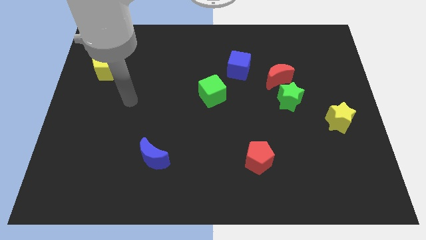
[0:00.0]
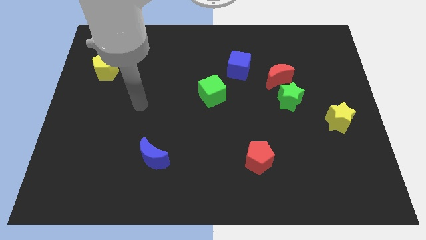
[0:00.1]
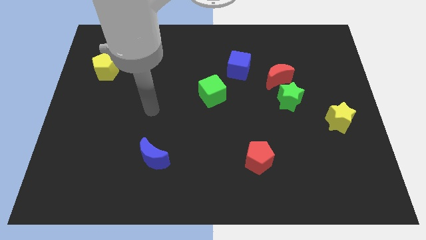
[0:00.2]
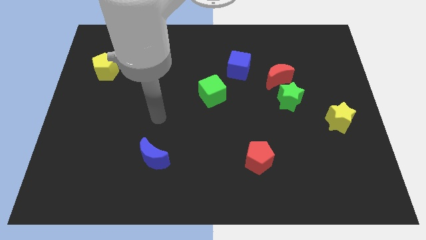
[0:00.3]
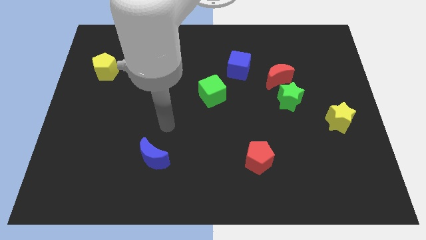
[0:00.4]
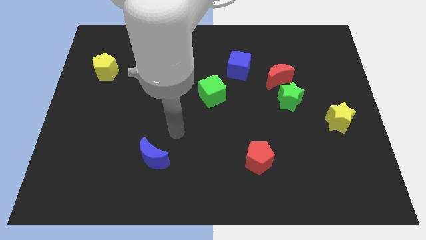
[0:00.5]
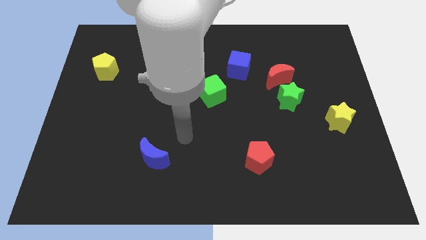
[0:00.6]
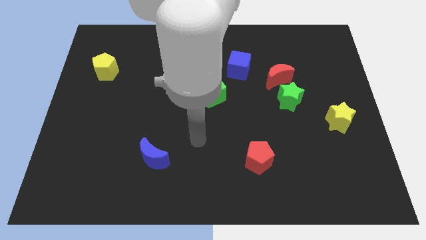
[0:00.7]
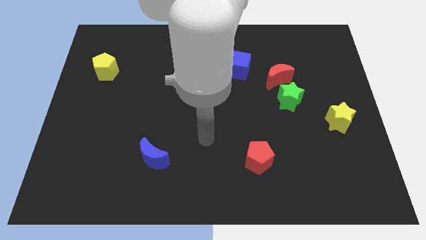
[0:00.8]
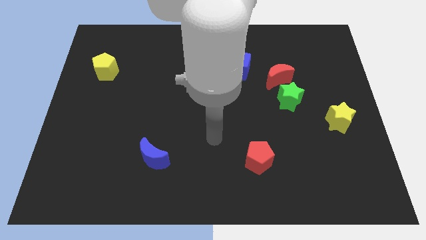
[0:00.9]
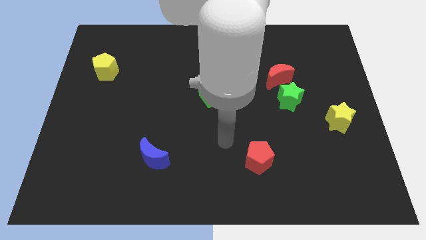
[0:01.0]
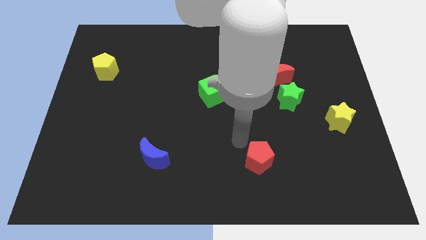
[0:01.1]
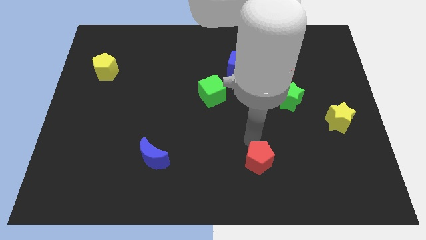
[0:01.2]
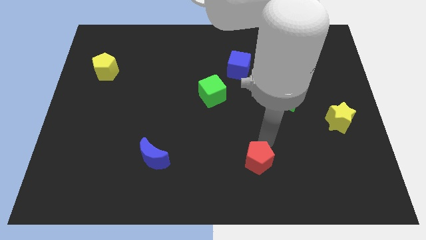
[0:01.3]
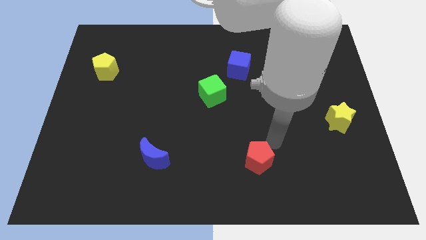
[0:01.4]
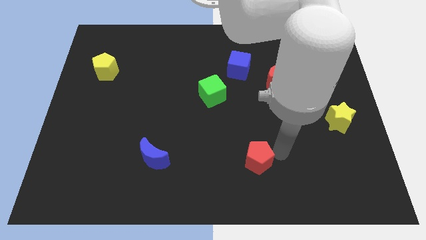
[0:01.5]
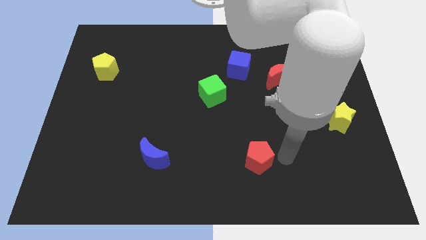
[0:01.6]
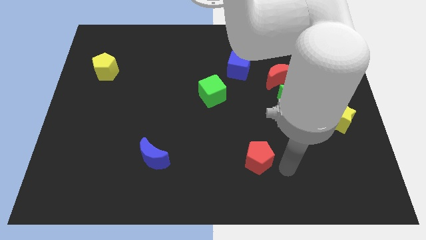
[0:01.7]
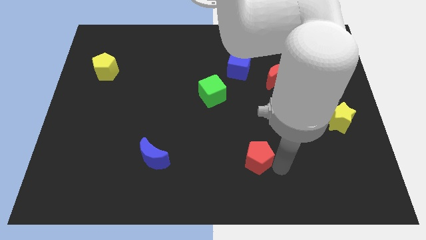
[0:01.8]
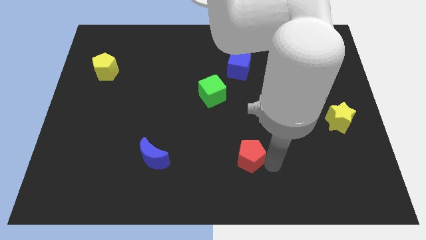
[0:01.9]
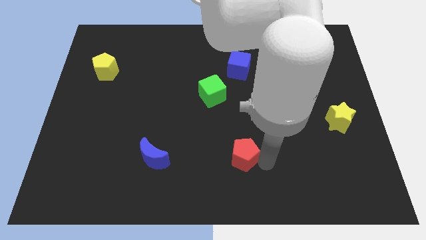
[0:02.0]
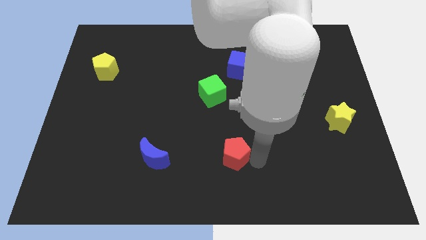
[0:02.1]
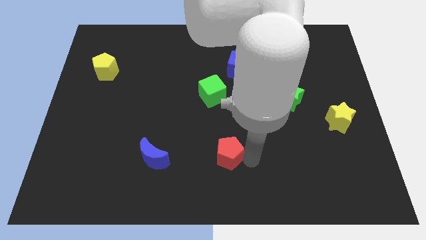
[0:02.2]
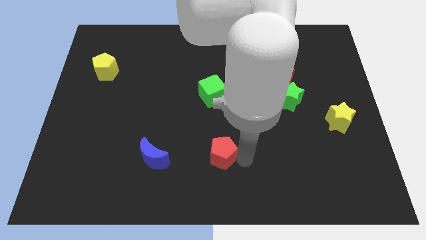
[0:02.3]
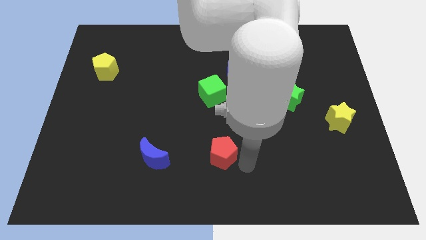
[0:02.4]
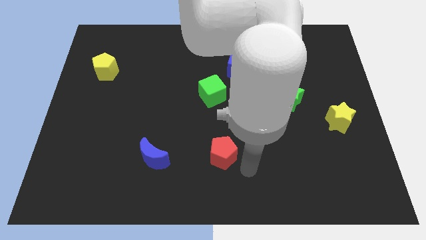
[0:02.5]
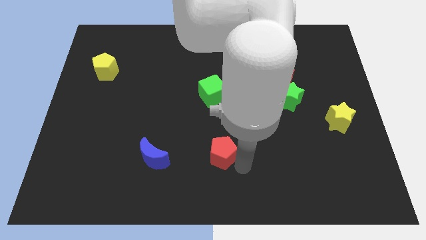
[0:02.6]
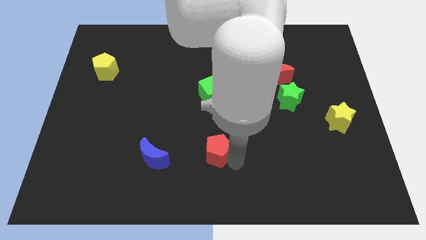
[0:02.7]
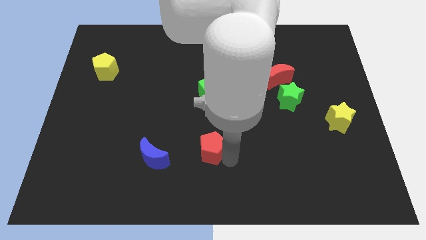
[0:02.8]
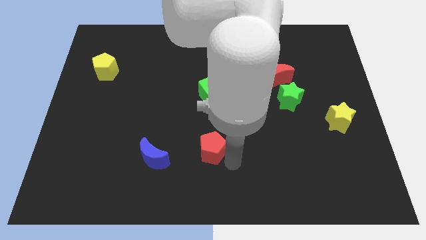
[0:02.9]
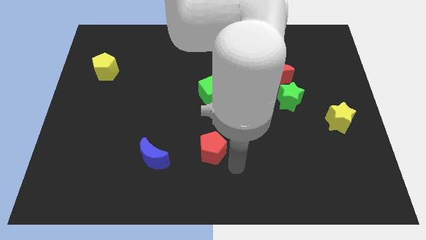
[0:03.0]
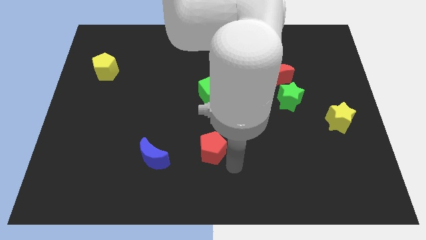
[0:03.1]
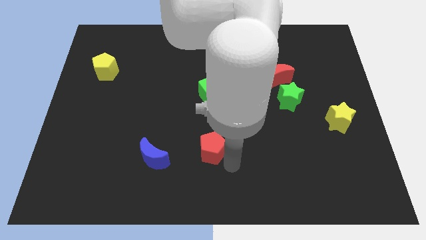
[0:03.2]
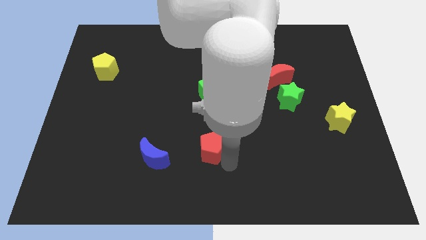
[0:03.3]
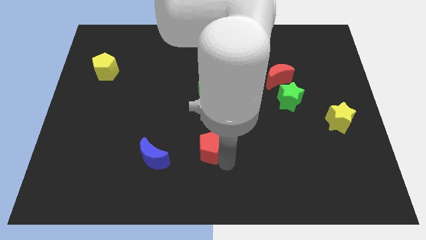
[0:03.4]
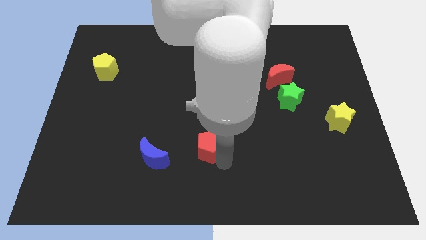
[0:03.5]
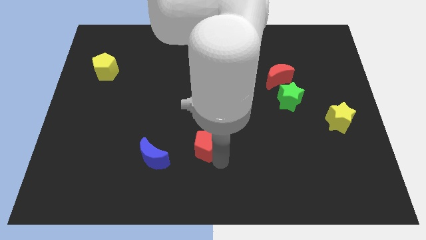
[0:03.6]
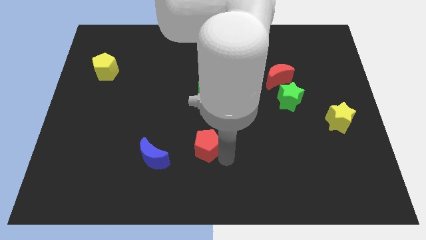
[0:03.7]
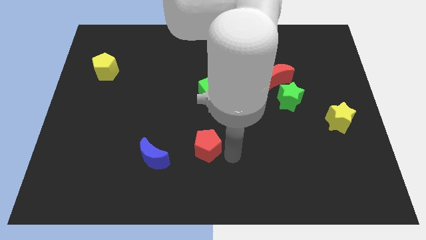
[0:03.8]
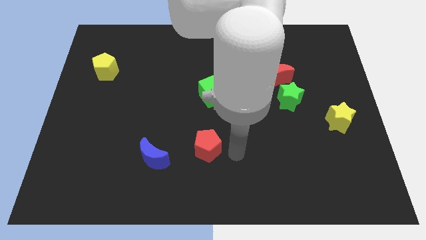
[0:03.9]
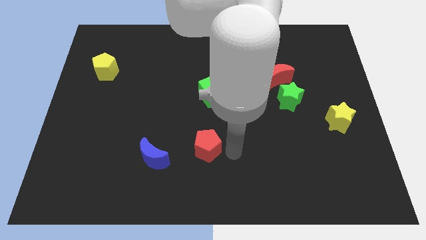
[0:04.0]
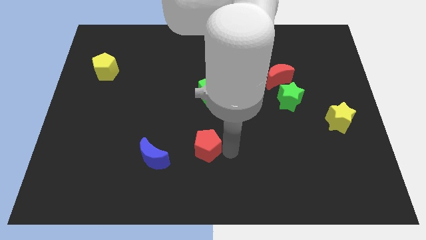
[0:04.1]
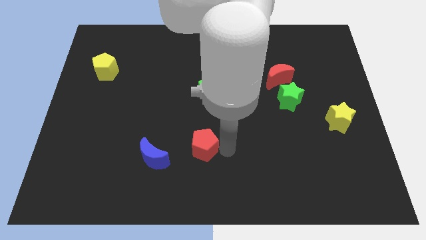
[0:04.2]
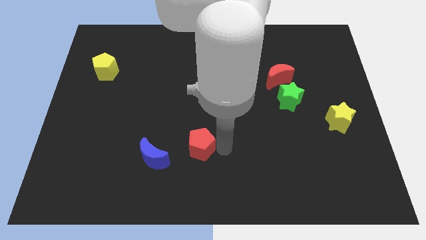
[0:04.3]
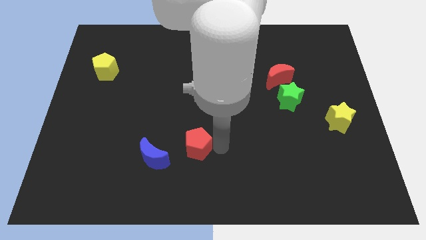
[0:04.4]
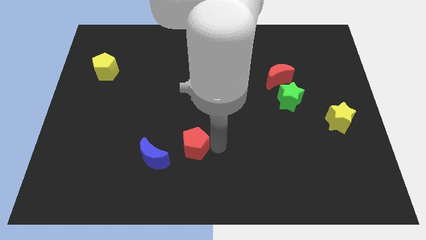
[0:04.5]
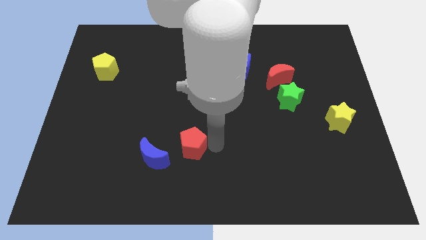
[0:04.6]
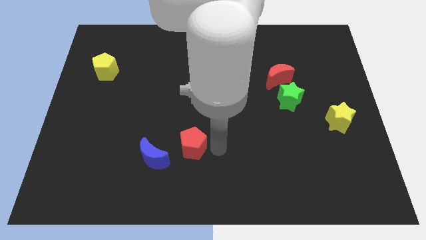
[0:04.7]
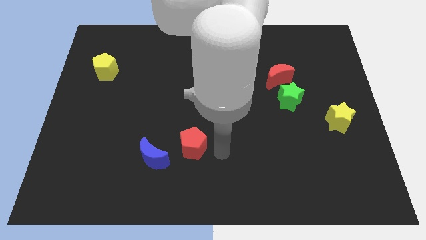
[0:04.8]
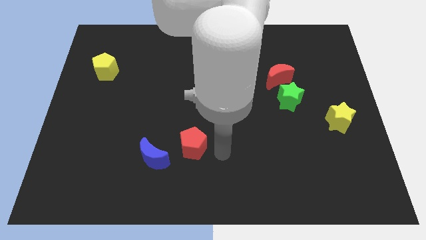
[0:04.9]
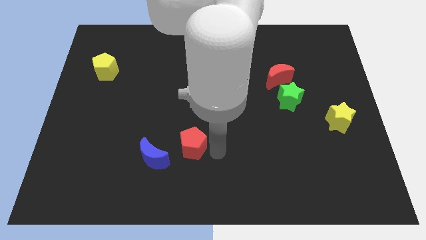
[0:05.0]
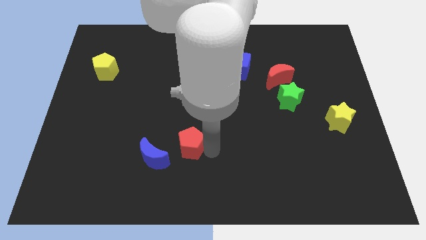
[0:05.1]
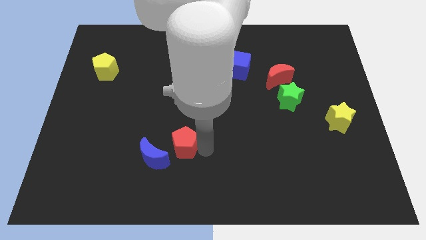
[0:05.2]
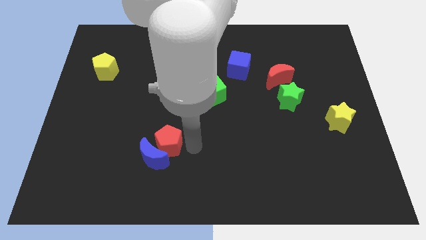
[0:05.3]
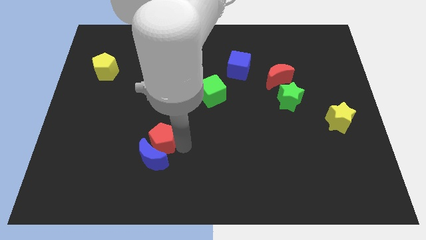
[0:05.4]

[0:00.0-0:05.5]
slide the red pentagon to the top left side of the blue moon

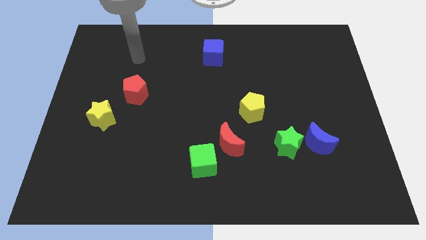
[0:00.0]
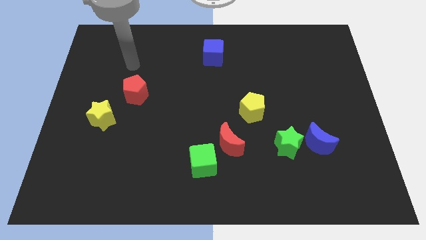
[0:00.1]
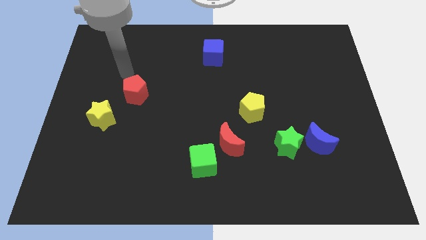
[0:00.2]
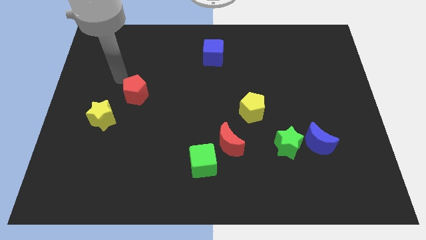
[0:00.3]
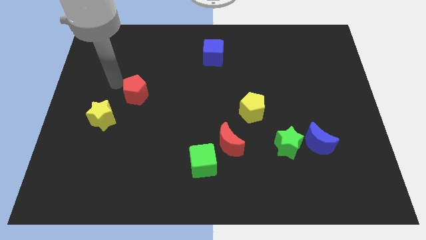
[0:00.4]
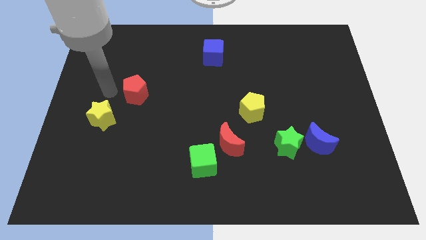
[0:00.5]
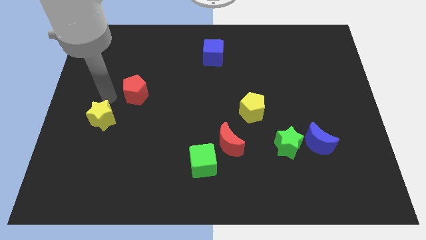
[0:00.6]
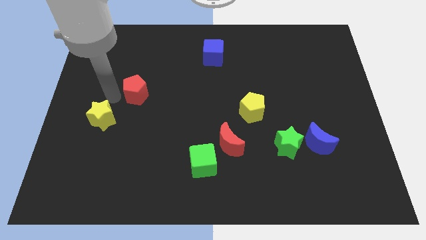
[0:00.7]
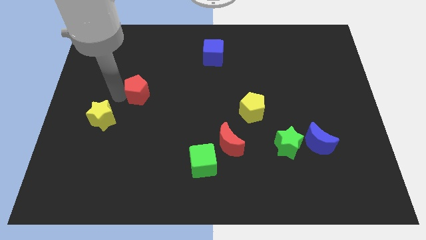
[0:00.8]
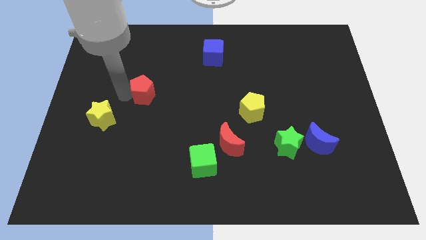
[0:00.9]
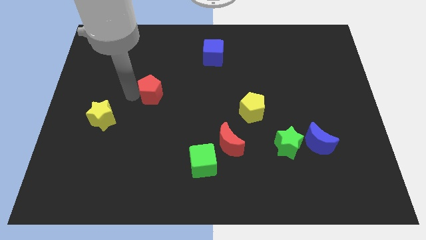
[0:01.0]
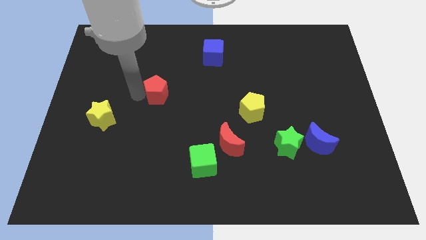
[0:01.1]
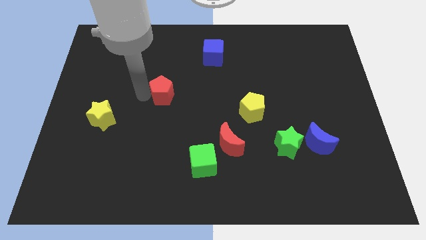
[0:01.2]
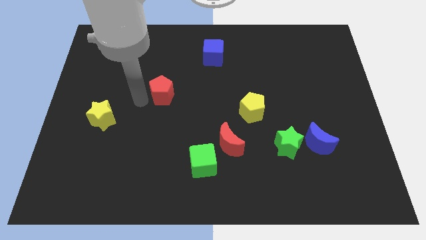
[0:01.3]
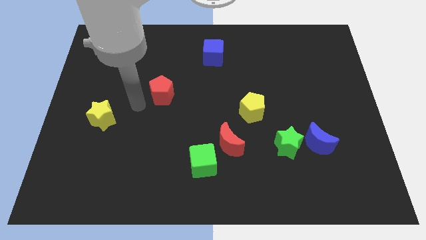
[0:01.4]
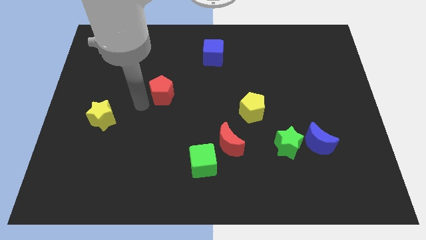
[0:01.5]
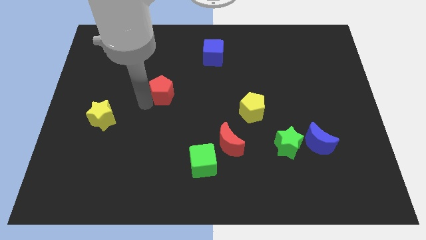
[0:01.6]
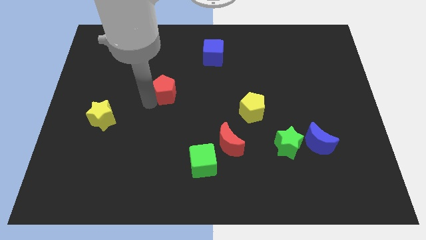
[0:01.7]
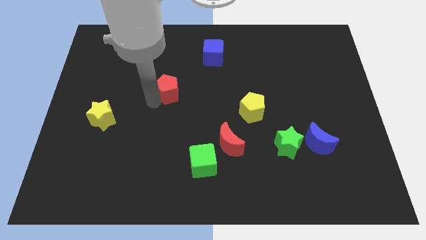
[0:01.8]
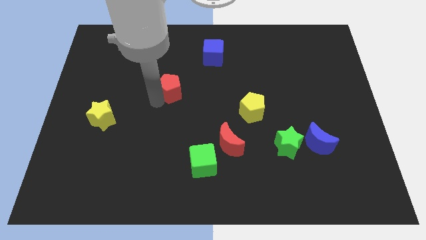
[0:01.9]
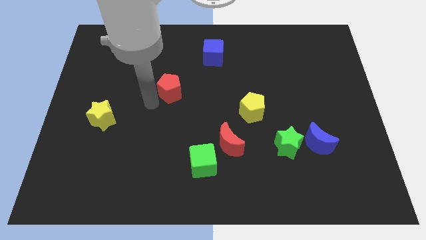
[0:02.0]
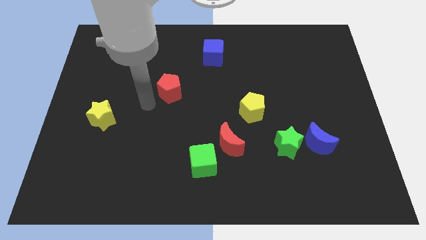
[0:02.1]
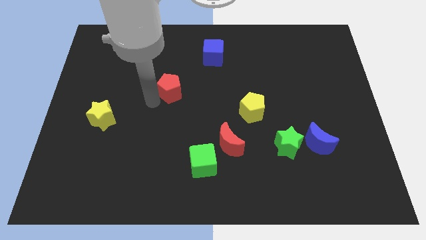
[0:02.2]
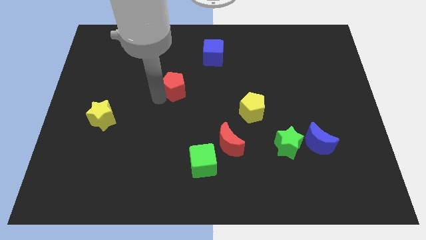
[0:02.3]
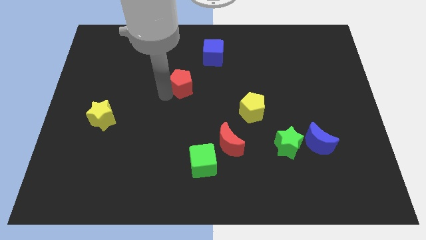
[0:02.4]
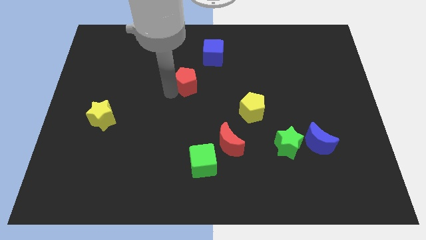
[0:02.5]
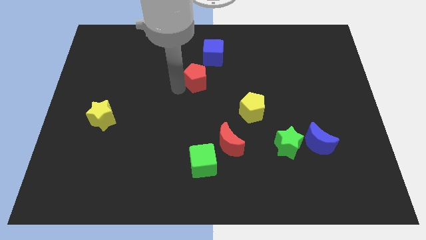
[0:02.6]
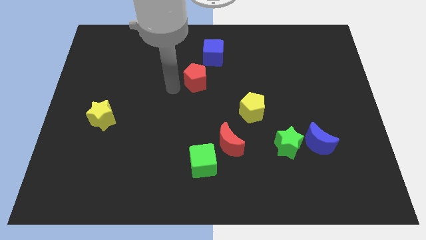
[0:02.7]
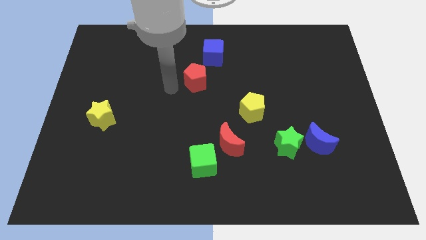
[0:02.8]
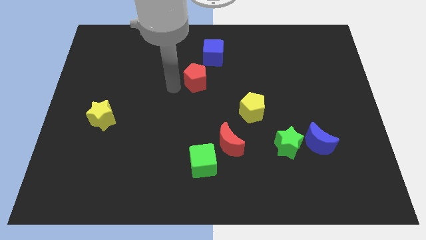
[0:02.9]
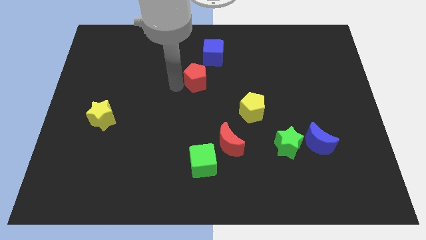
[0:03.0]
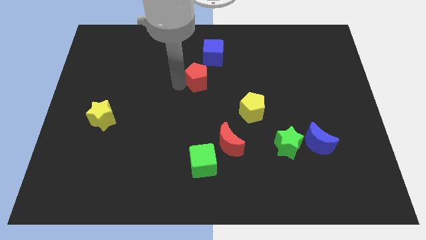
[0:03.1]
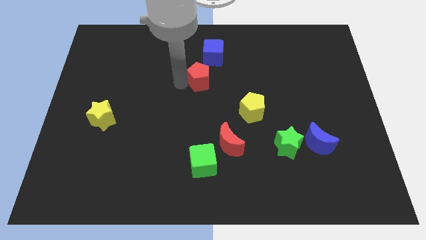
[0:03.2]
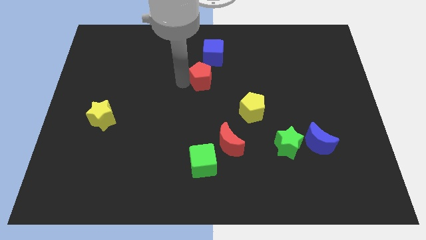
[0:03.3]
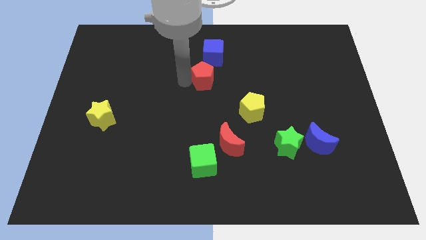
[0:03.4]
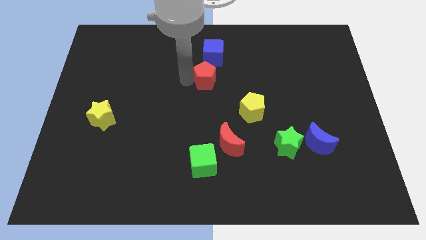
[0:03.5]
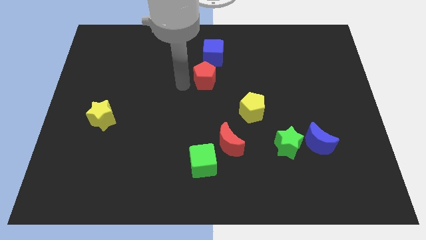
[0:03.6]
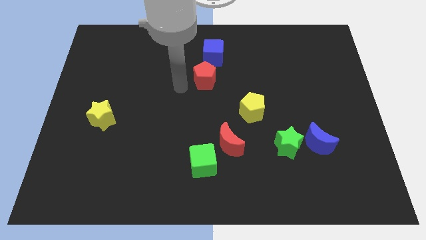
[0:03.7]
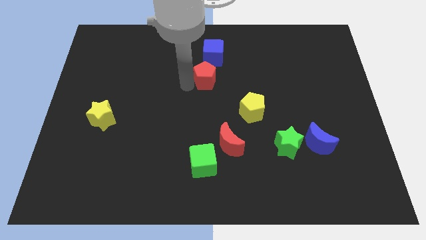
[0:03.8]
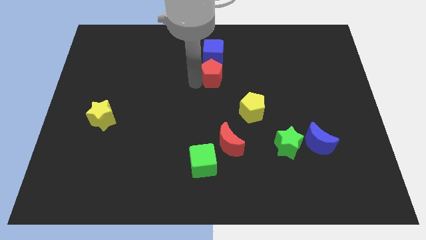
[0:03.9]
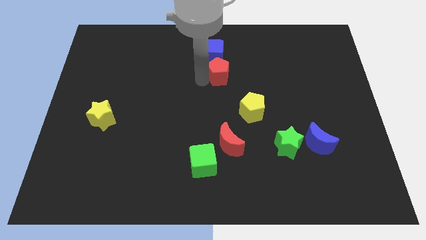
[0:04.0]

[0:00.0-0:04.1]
move the red pentagon diagonally down and to the right of the blue cube
